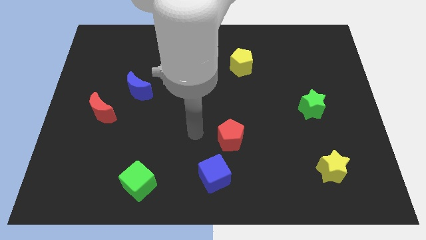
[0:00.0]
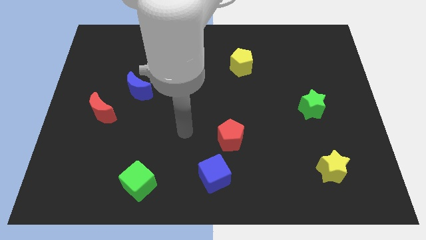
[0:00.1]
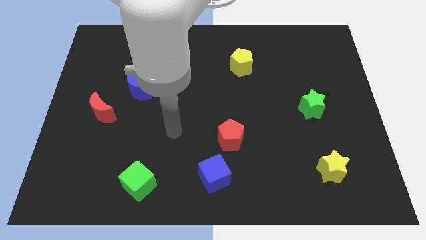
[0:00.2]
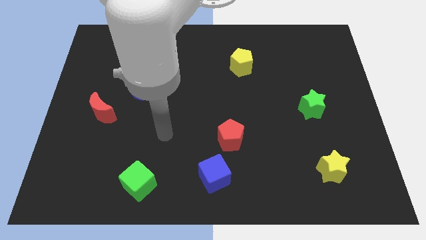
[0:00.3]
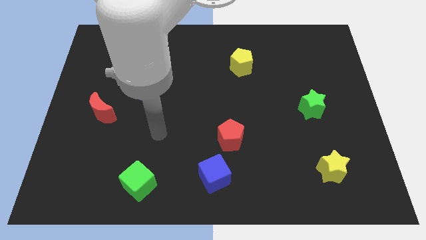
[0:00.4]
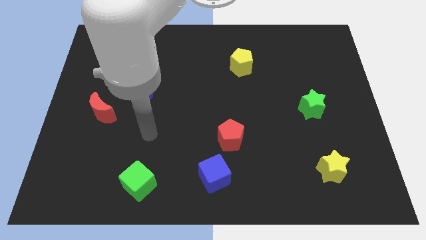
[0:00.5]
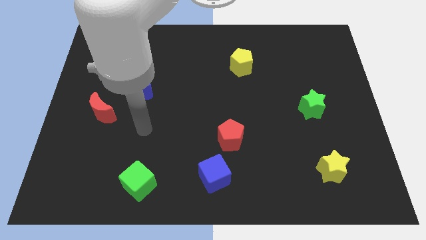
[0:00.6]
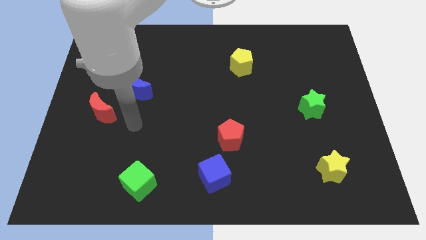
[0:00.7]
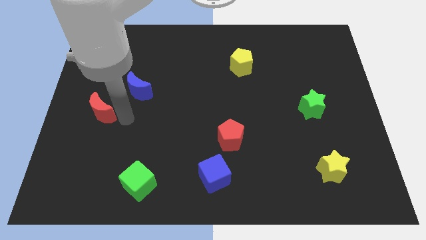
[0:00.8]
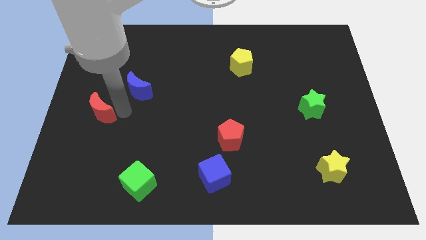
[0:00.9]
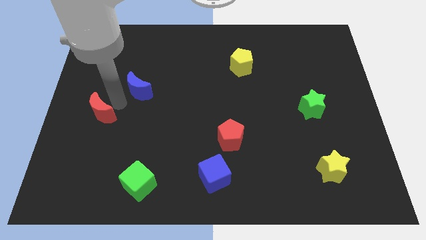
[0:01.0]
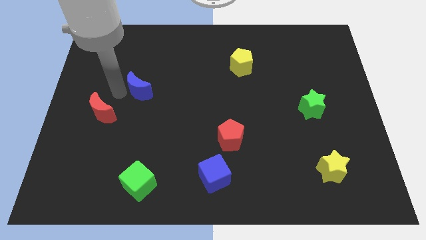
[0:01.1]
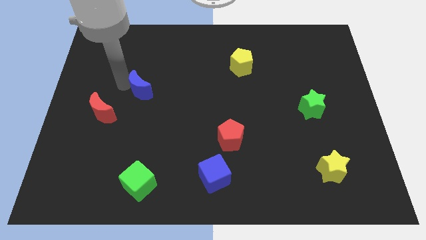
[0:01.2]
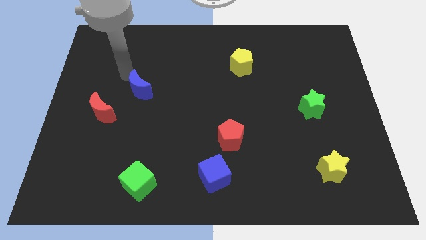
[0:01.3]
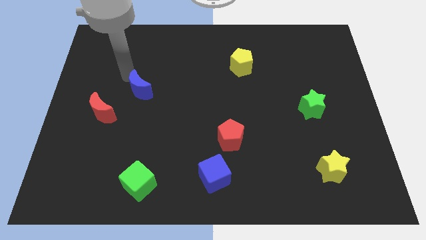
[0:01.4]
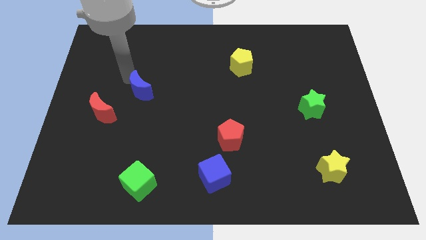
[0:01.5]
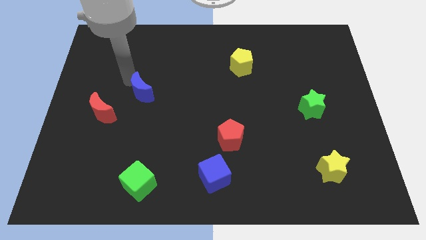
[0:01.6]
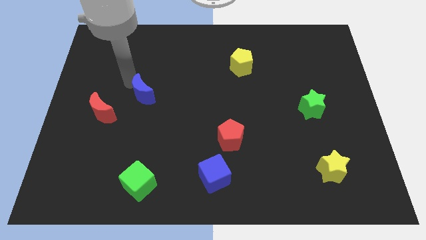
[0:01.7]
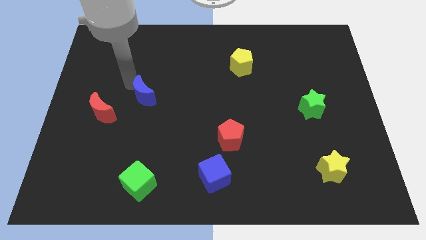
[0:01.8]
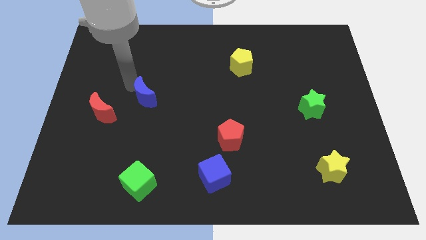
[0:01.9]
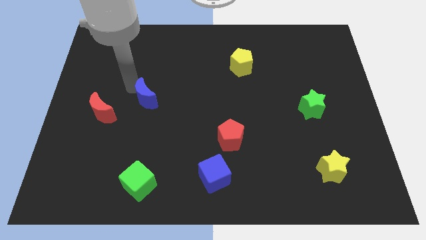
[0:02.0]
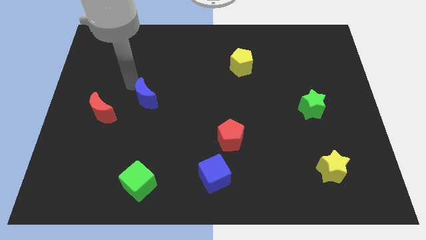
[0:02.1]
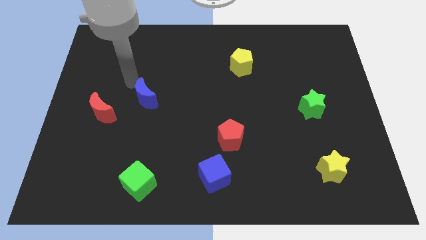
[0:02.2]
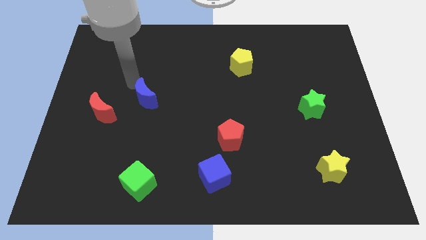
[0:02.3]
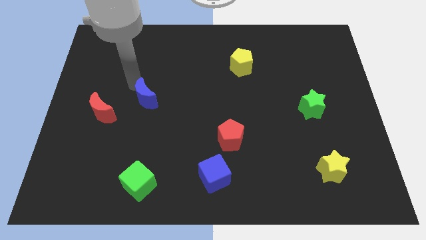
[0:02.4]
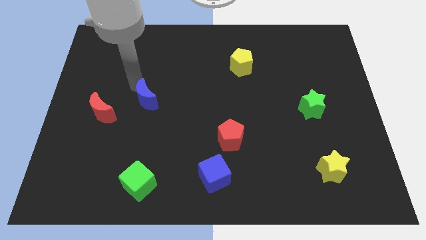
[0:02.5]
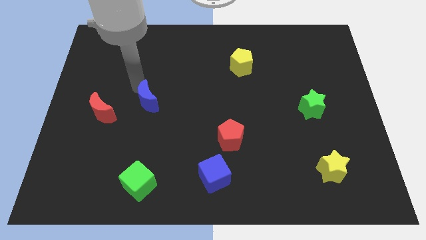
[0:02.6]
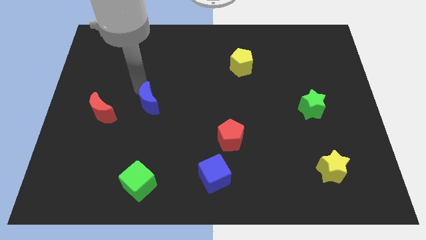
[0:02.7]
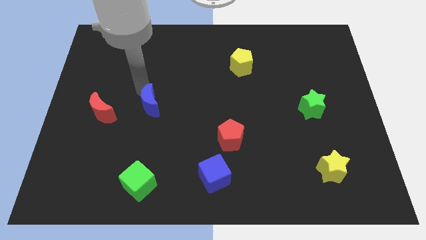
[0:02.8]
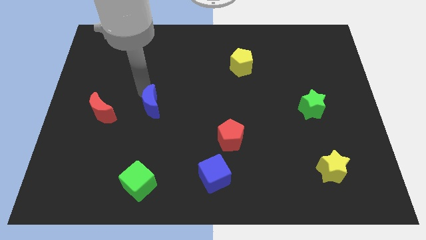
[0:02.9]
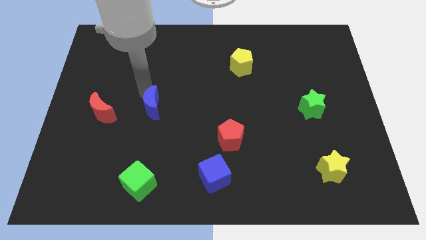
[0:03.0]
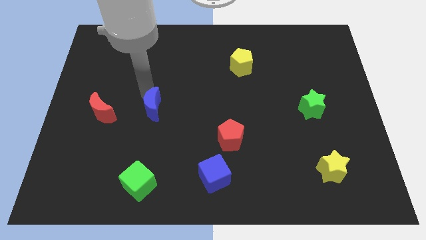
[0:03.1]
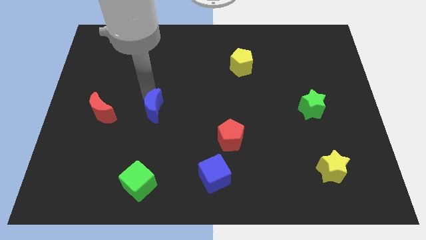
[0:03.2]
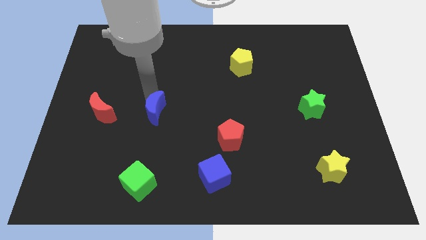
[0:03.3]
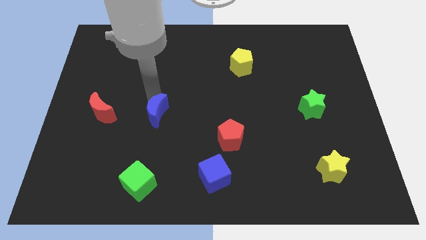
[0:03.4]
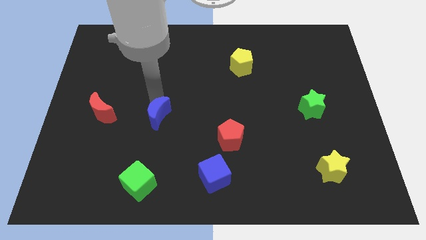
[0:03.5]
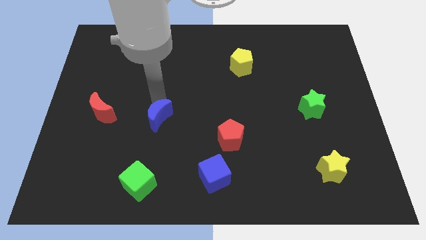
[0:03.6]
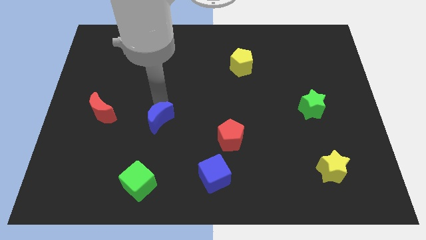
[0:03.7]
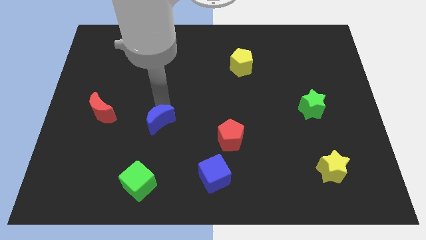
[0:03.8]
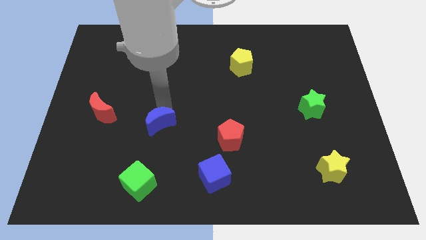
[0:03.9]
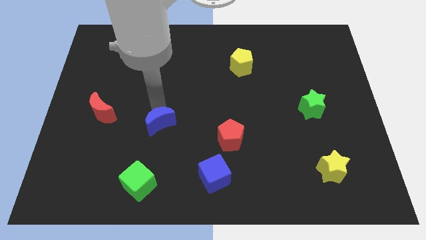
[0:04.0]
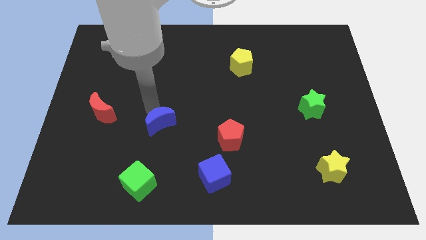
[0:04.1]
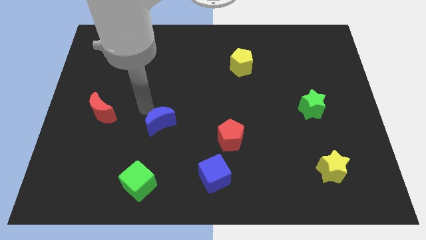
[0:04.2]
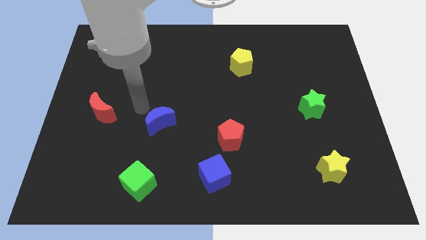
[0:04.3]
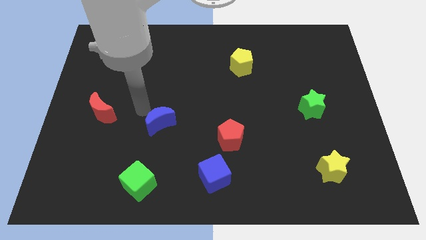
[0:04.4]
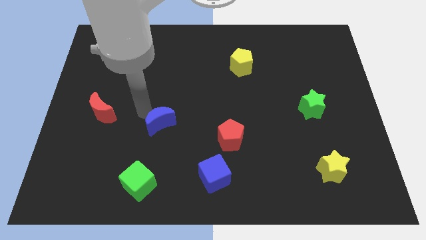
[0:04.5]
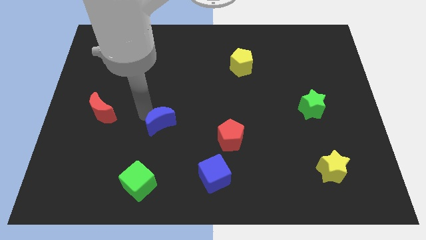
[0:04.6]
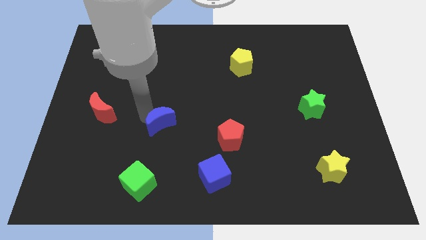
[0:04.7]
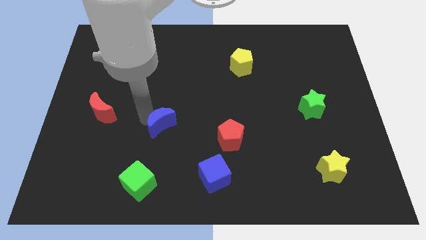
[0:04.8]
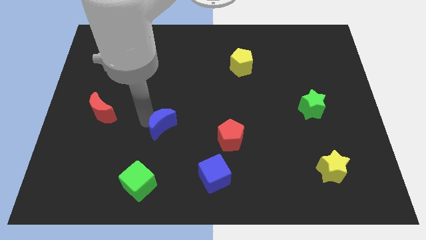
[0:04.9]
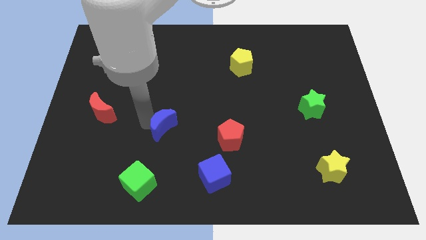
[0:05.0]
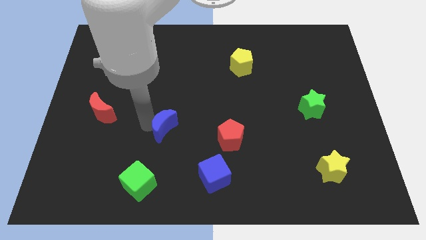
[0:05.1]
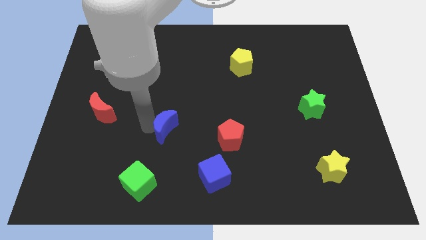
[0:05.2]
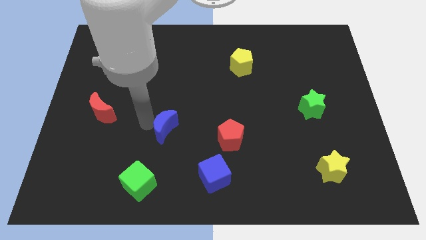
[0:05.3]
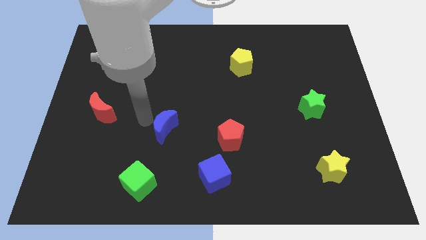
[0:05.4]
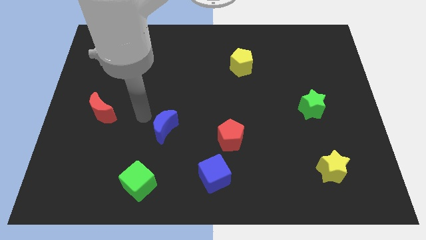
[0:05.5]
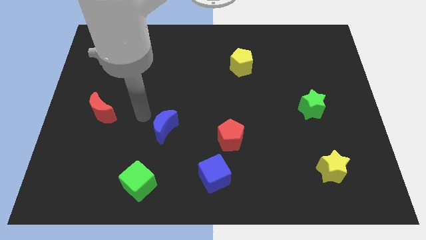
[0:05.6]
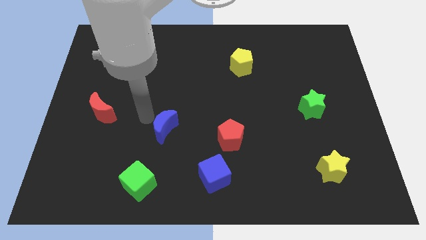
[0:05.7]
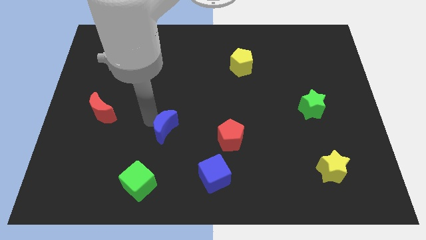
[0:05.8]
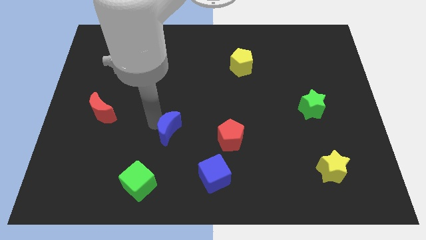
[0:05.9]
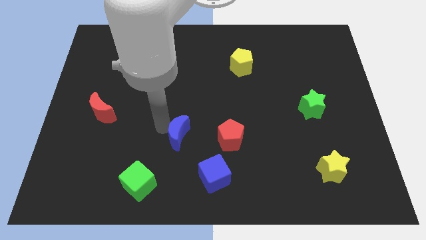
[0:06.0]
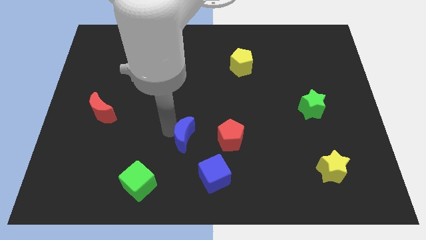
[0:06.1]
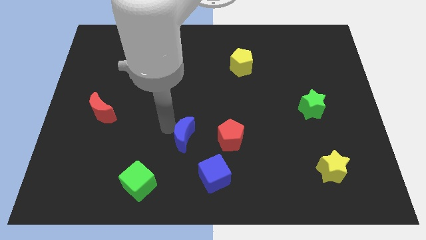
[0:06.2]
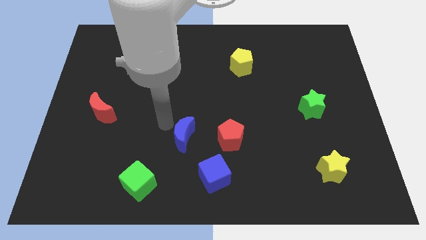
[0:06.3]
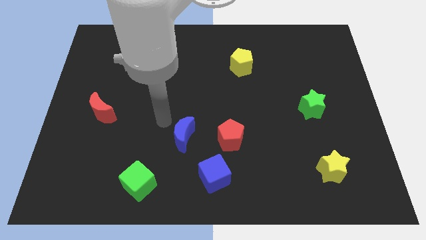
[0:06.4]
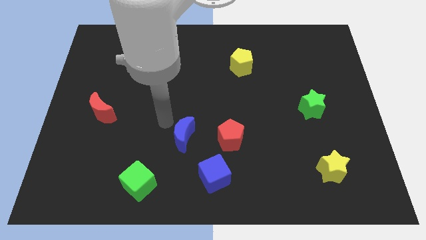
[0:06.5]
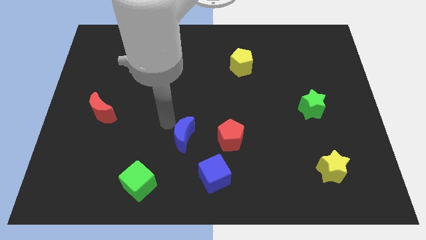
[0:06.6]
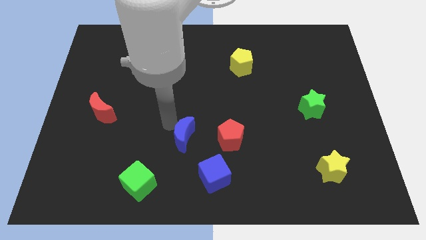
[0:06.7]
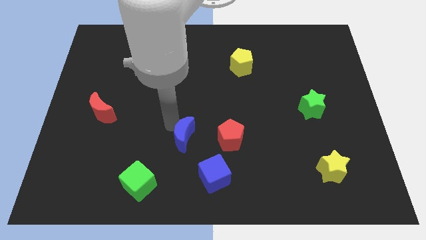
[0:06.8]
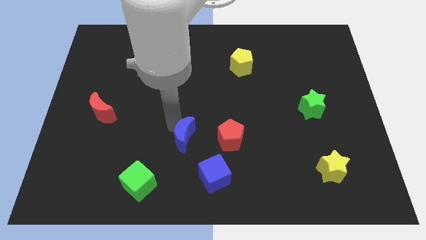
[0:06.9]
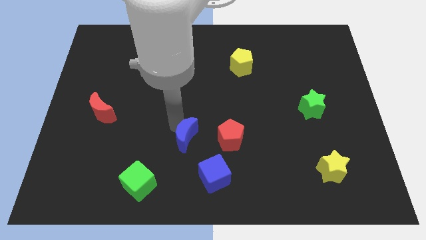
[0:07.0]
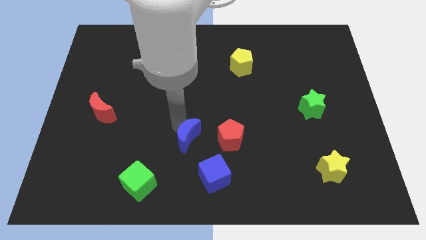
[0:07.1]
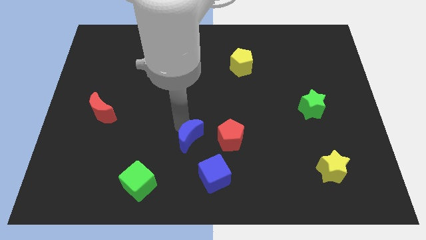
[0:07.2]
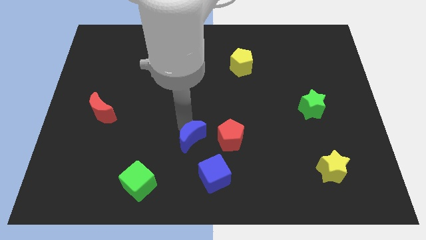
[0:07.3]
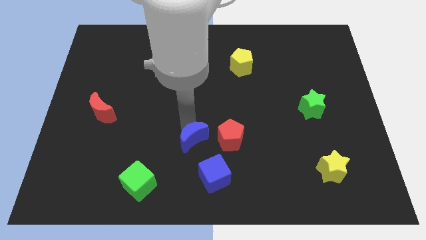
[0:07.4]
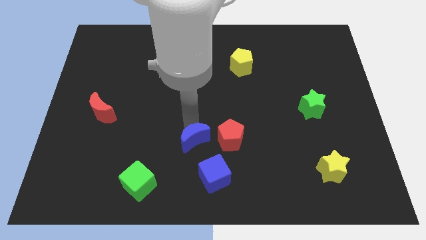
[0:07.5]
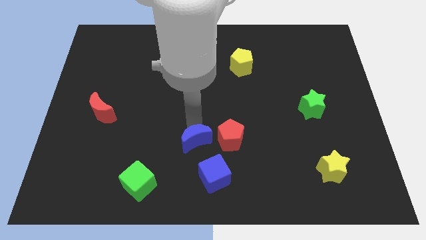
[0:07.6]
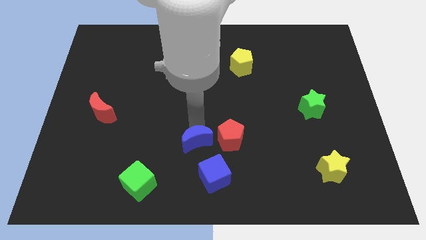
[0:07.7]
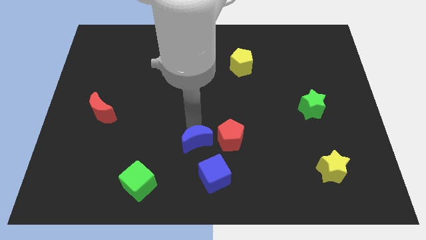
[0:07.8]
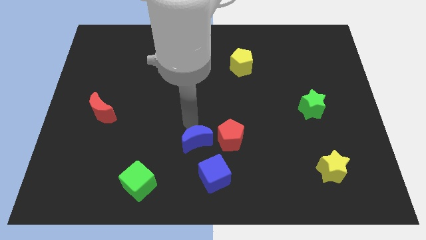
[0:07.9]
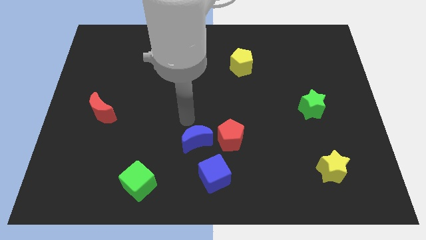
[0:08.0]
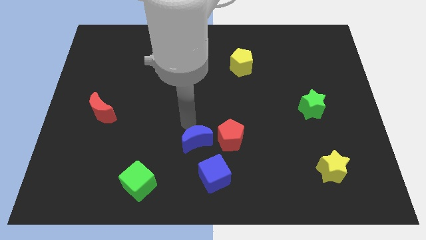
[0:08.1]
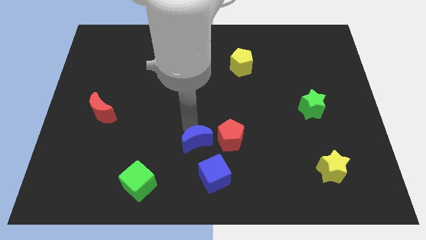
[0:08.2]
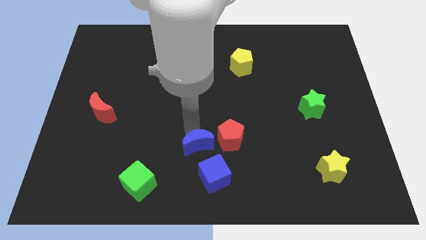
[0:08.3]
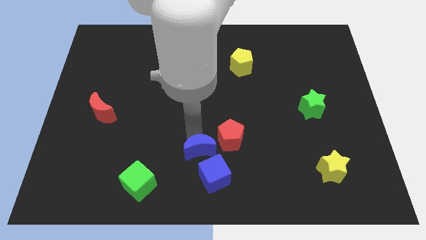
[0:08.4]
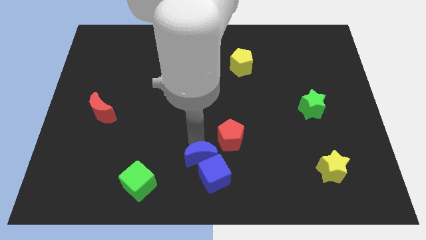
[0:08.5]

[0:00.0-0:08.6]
move the blue moon next to the blue cube
